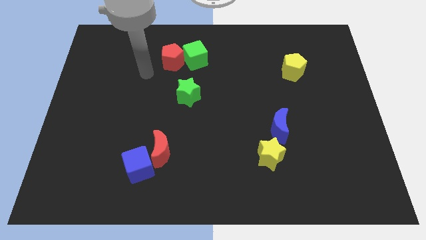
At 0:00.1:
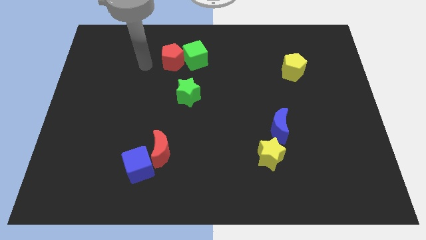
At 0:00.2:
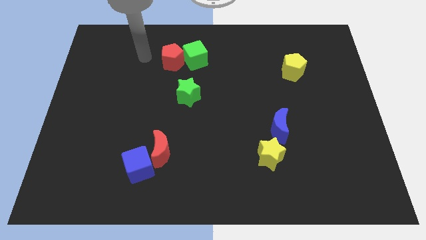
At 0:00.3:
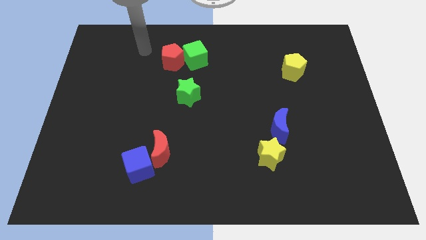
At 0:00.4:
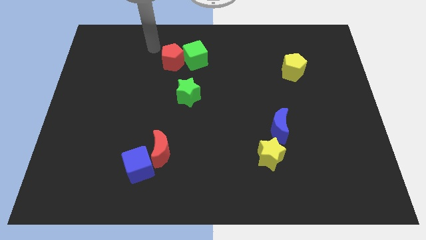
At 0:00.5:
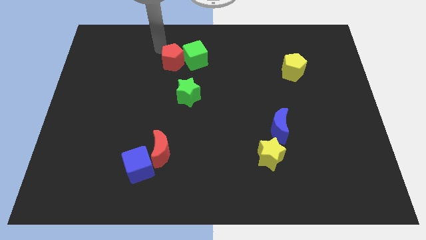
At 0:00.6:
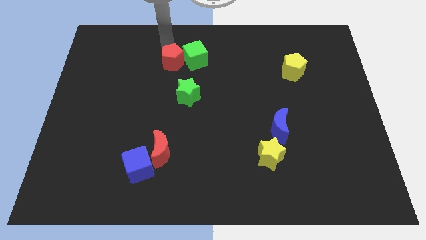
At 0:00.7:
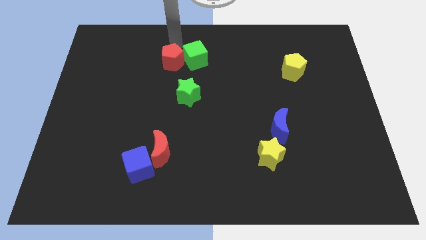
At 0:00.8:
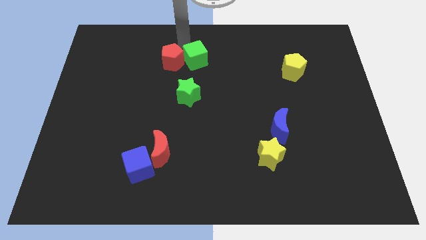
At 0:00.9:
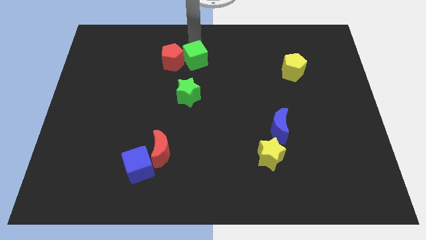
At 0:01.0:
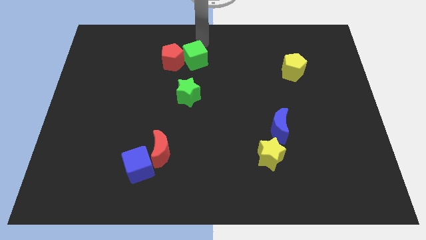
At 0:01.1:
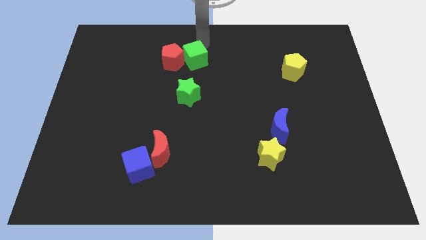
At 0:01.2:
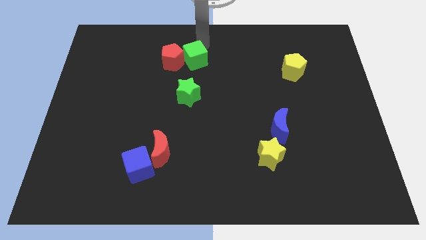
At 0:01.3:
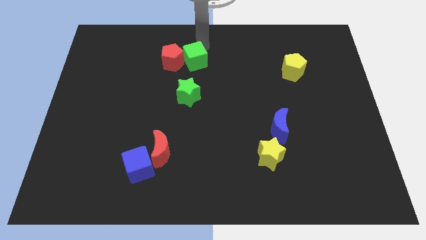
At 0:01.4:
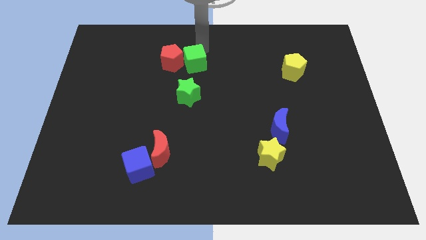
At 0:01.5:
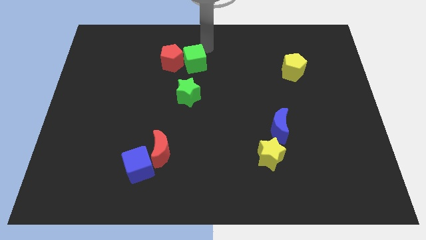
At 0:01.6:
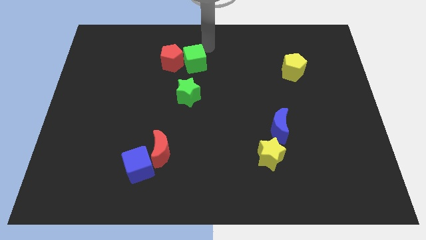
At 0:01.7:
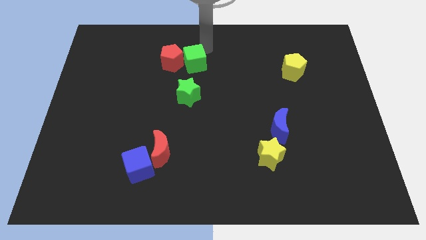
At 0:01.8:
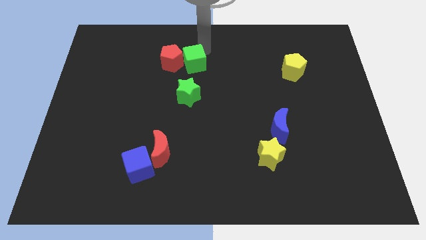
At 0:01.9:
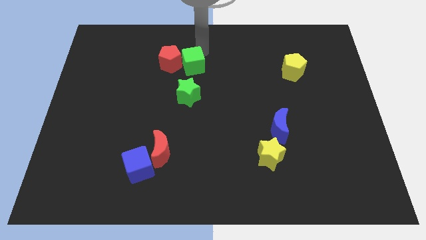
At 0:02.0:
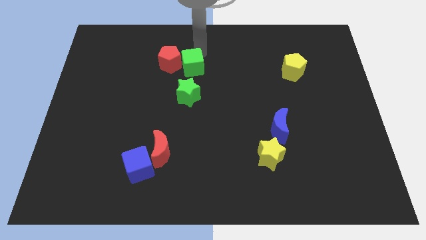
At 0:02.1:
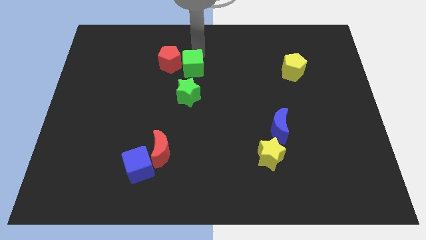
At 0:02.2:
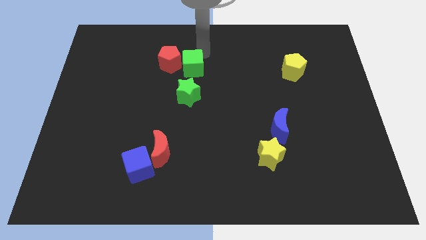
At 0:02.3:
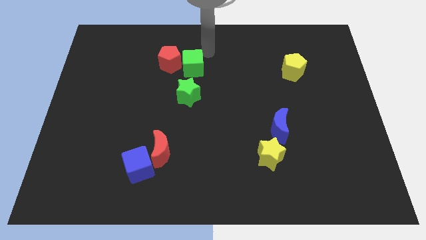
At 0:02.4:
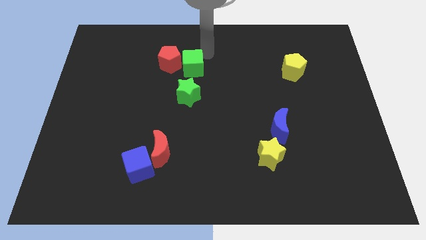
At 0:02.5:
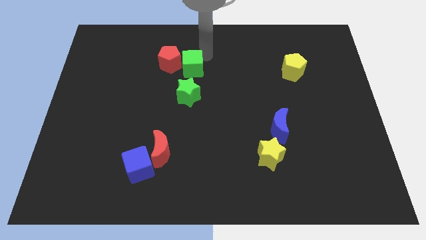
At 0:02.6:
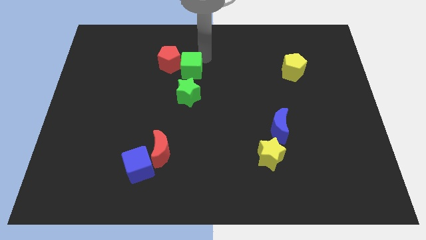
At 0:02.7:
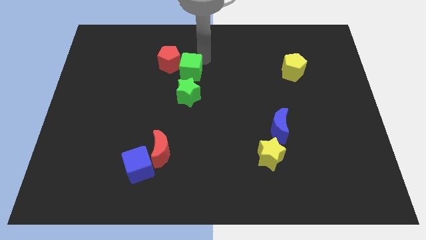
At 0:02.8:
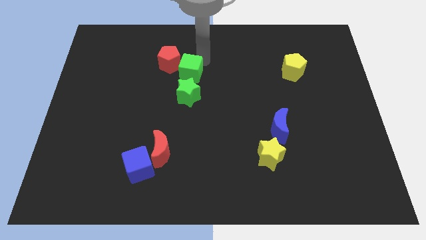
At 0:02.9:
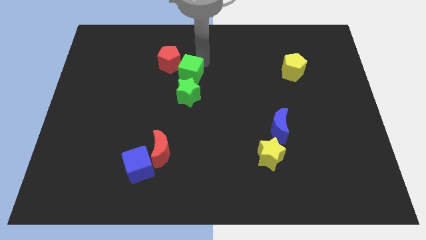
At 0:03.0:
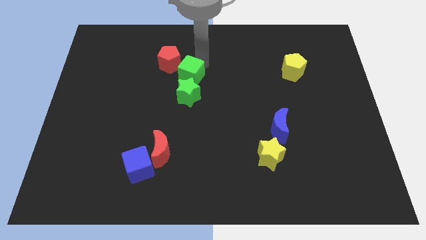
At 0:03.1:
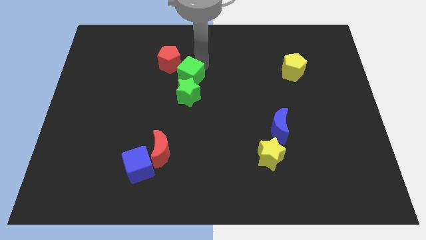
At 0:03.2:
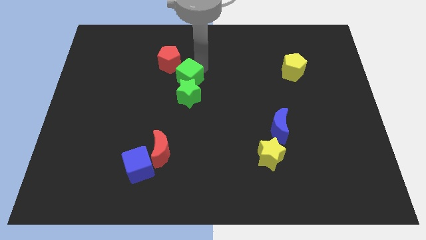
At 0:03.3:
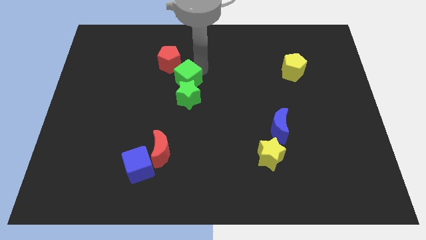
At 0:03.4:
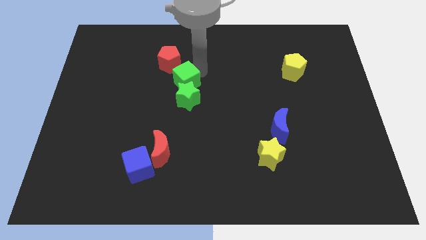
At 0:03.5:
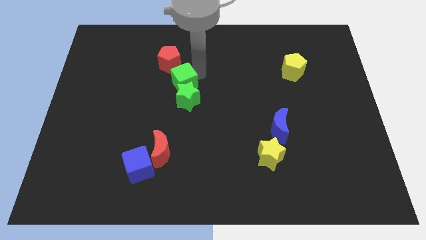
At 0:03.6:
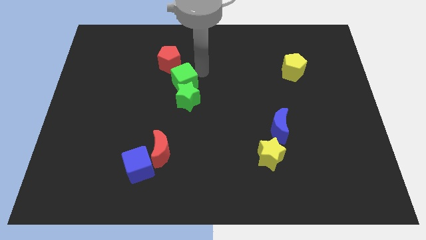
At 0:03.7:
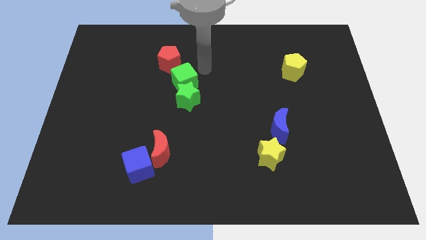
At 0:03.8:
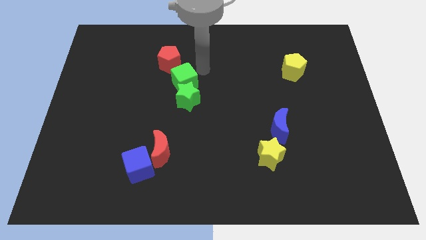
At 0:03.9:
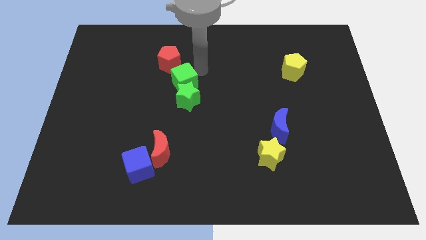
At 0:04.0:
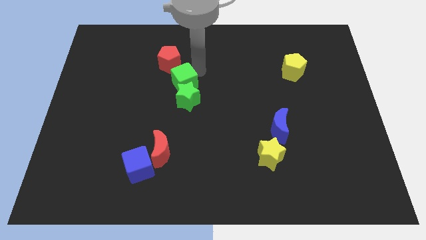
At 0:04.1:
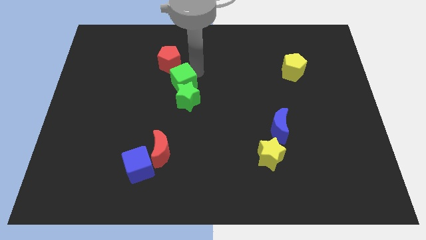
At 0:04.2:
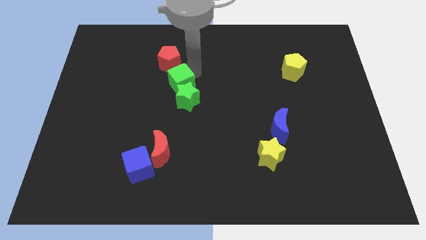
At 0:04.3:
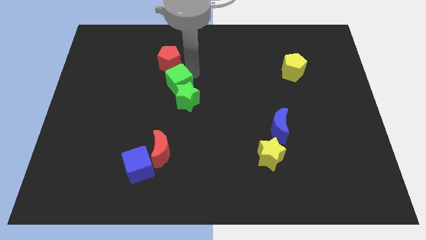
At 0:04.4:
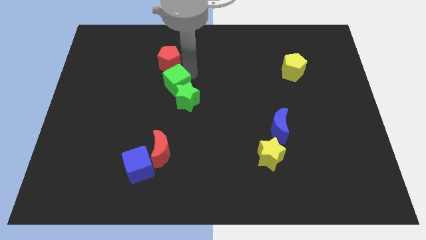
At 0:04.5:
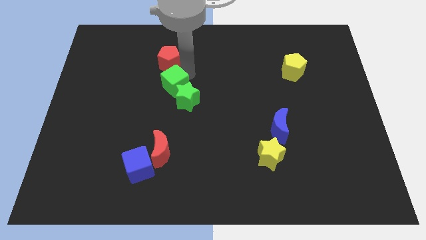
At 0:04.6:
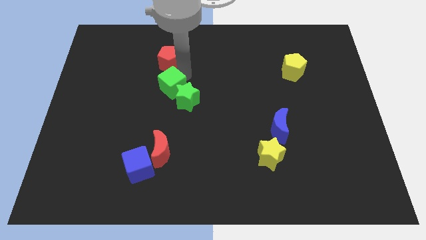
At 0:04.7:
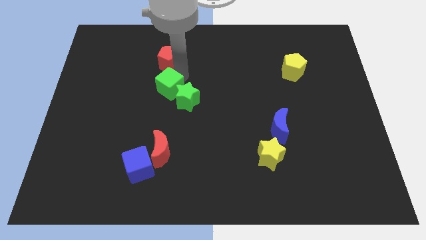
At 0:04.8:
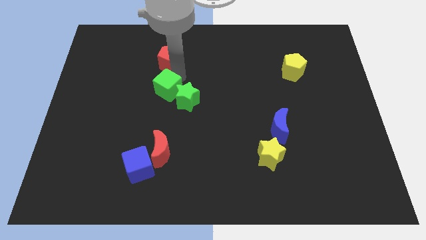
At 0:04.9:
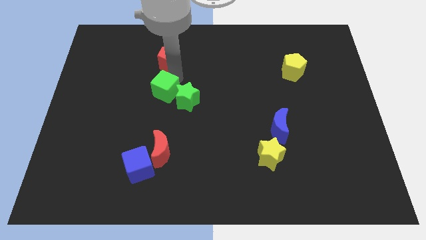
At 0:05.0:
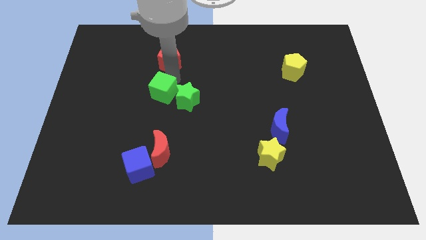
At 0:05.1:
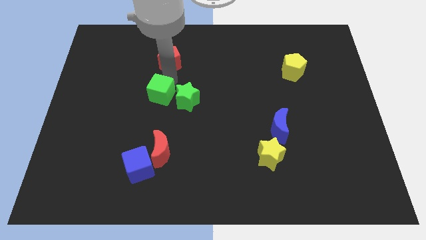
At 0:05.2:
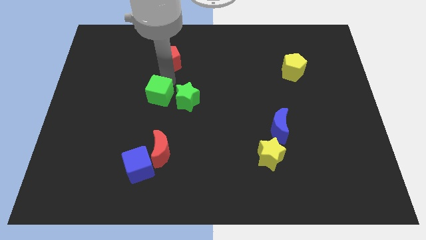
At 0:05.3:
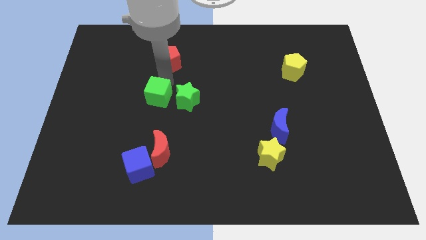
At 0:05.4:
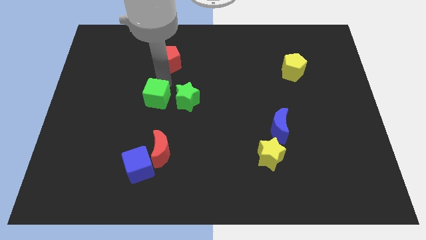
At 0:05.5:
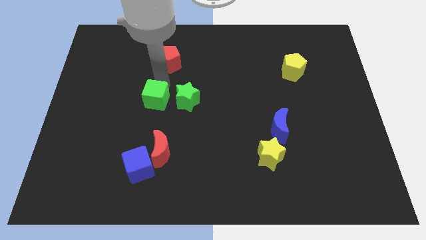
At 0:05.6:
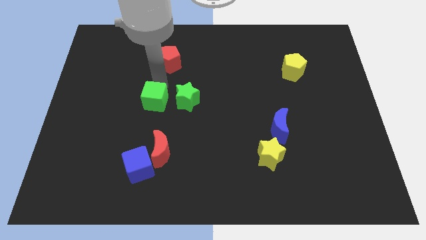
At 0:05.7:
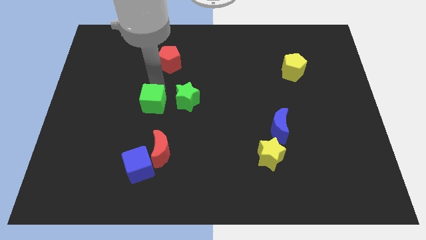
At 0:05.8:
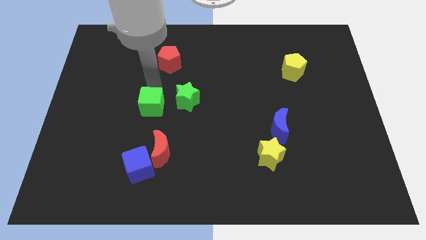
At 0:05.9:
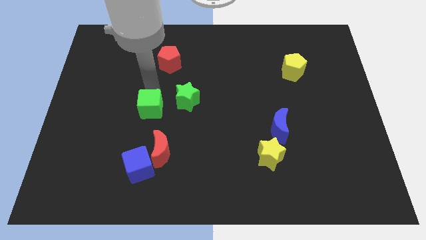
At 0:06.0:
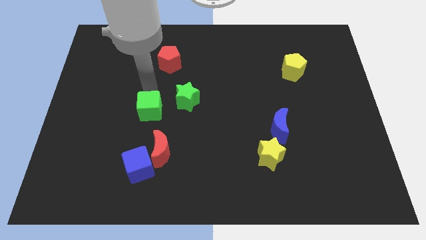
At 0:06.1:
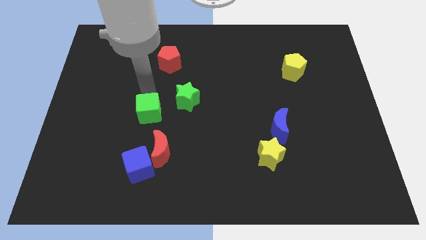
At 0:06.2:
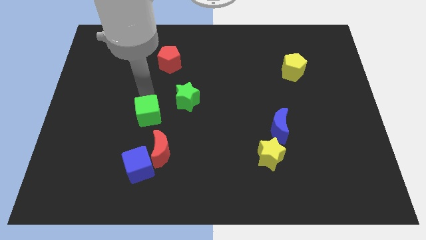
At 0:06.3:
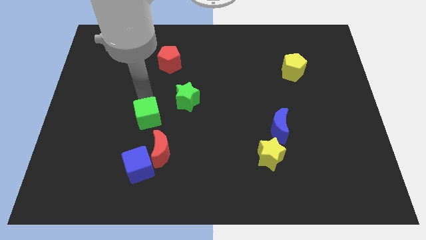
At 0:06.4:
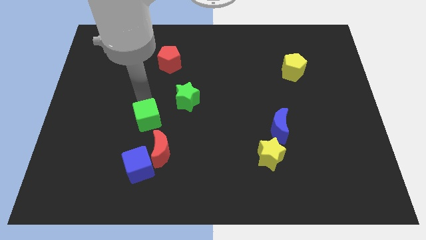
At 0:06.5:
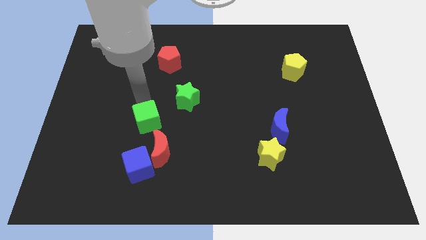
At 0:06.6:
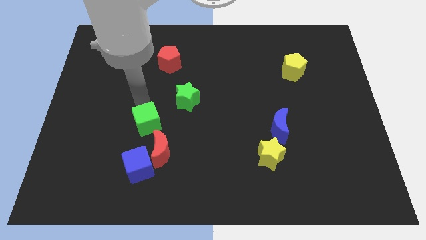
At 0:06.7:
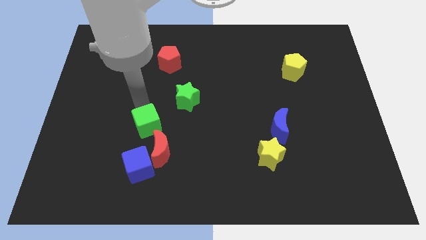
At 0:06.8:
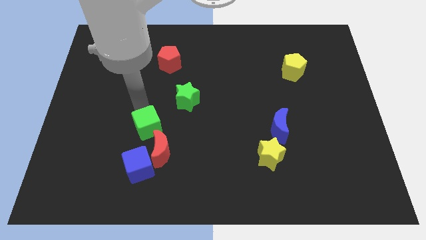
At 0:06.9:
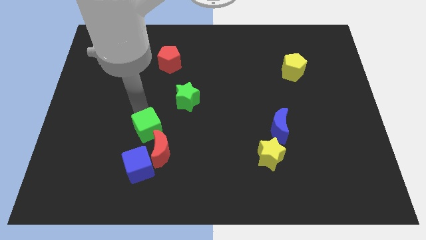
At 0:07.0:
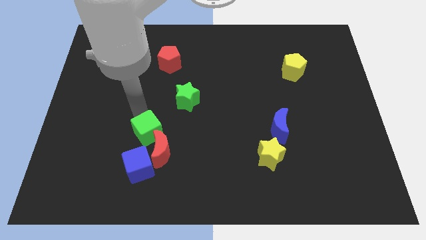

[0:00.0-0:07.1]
slide the green cube close to the red moon

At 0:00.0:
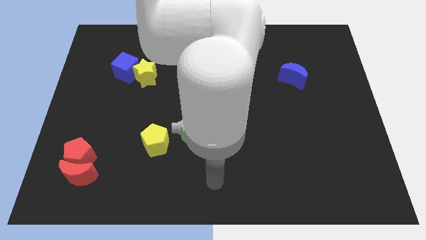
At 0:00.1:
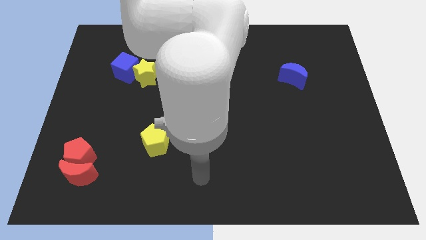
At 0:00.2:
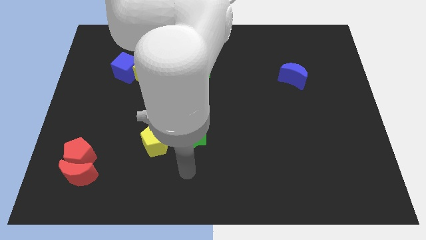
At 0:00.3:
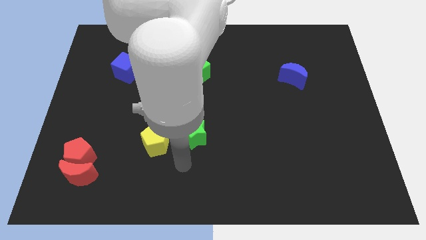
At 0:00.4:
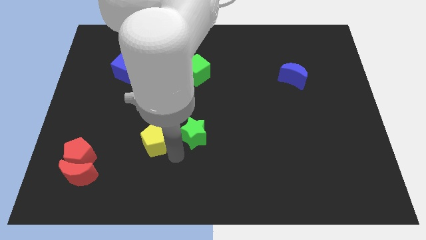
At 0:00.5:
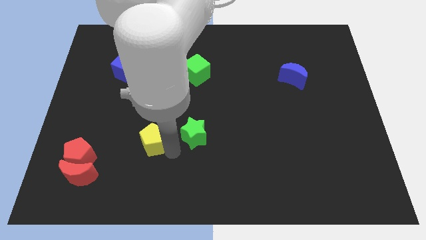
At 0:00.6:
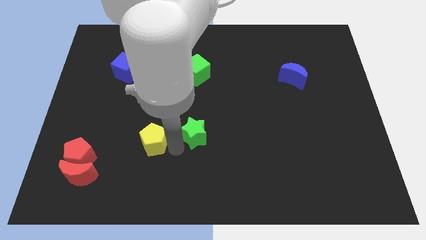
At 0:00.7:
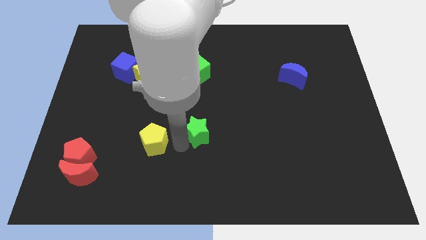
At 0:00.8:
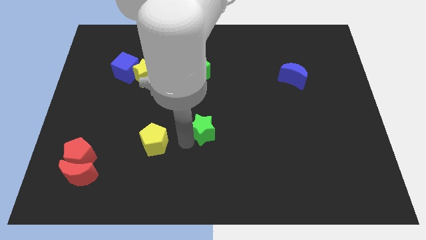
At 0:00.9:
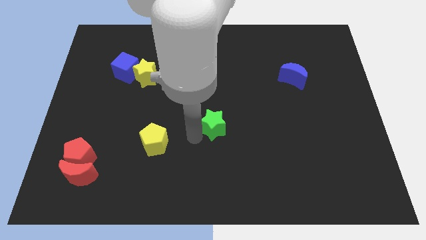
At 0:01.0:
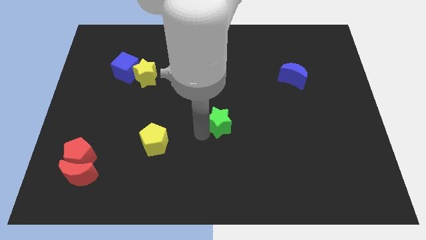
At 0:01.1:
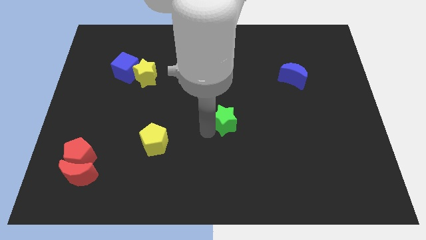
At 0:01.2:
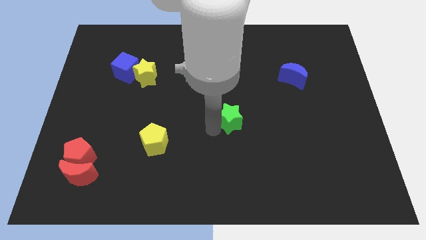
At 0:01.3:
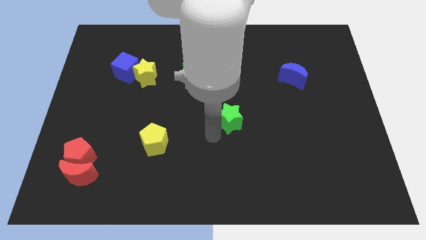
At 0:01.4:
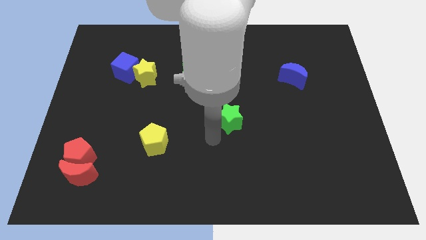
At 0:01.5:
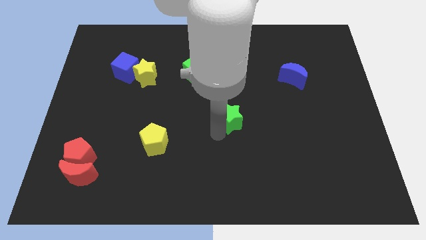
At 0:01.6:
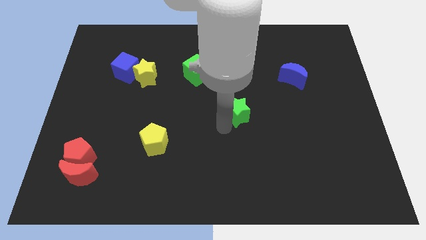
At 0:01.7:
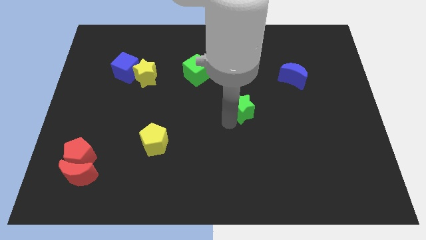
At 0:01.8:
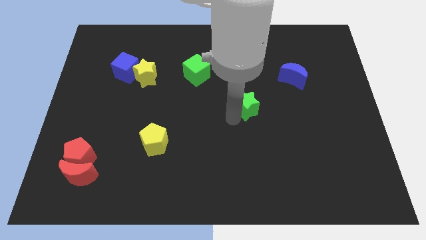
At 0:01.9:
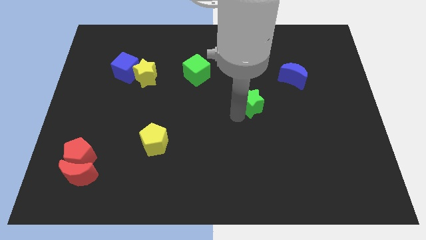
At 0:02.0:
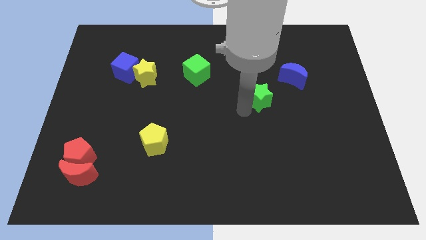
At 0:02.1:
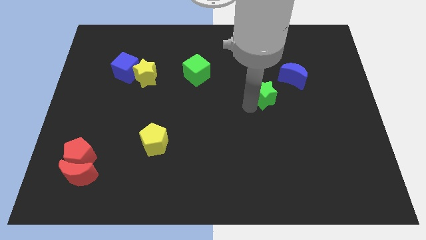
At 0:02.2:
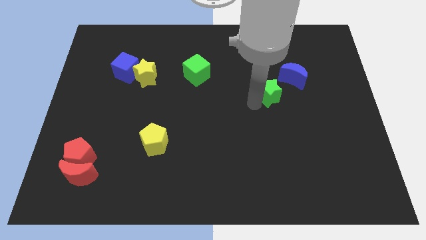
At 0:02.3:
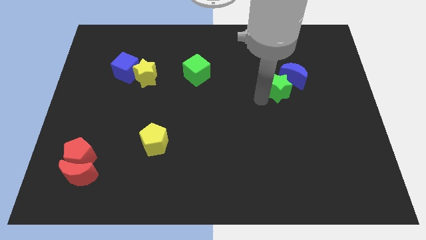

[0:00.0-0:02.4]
put the green star close to the blue moon
